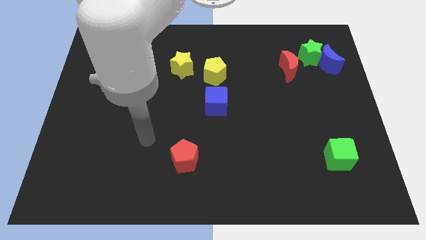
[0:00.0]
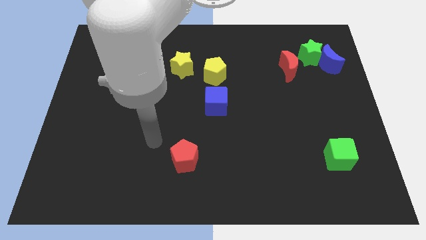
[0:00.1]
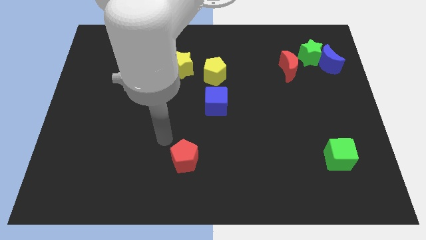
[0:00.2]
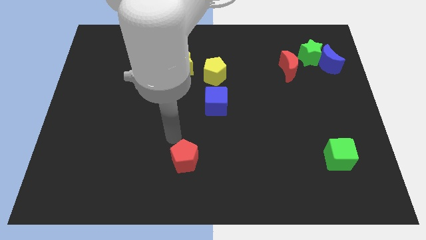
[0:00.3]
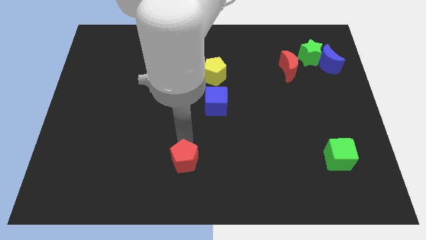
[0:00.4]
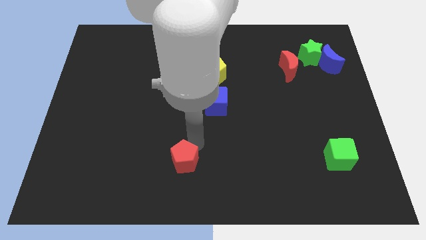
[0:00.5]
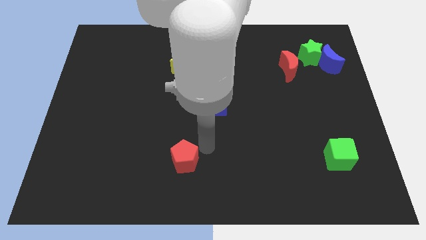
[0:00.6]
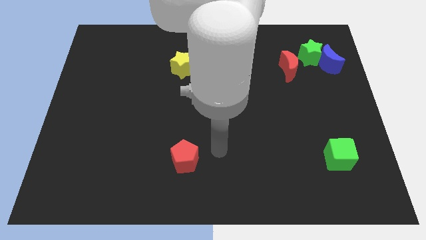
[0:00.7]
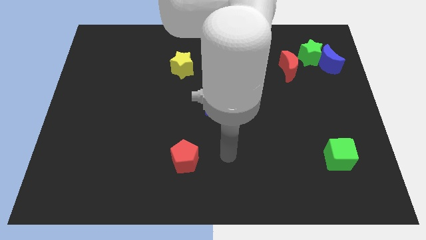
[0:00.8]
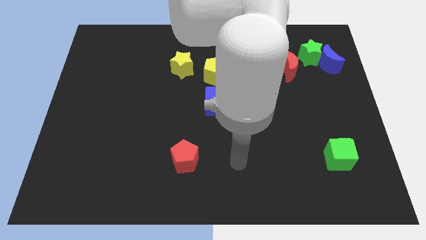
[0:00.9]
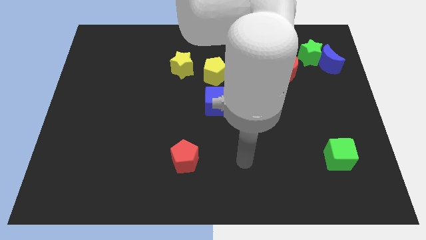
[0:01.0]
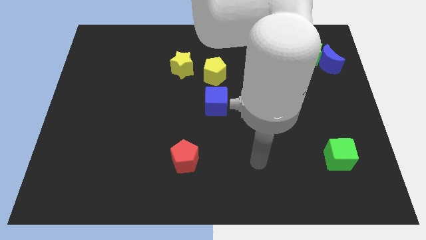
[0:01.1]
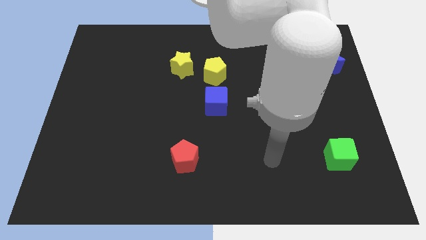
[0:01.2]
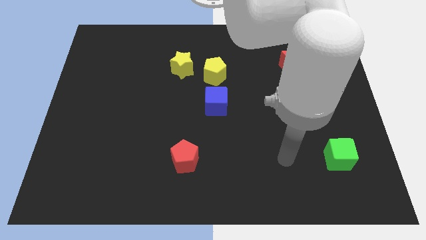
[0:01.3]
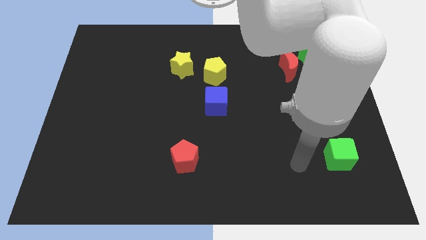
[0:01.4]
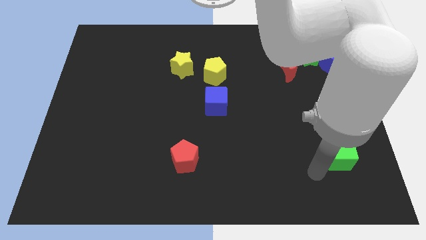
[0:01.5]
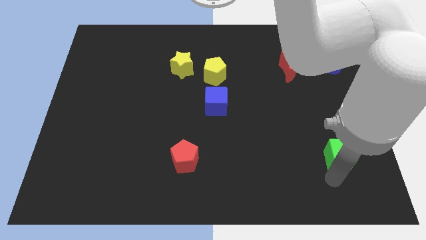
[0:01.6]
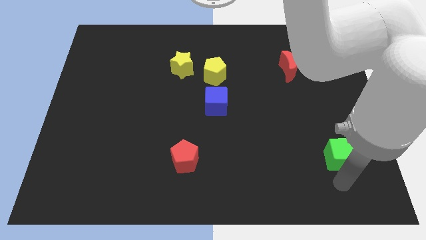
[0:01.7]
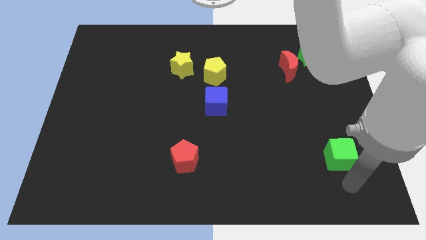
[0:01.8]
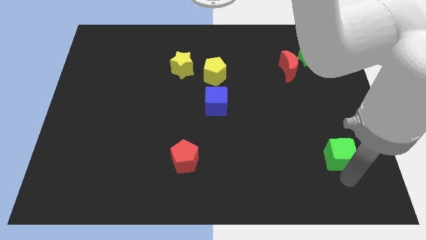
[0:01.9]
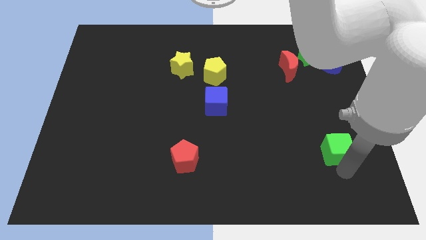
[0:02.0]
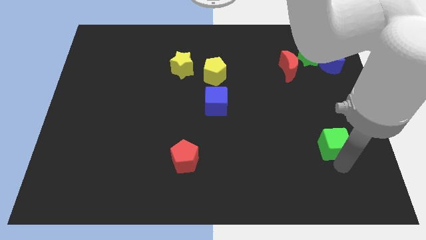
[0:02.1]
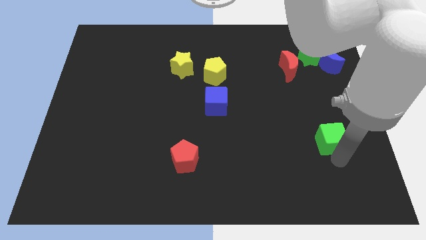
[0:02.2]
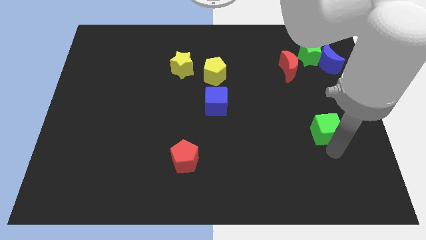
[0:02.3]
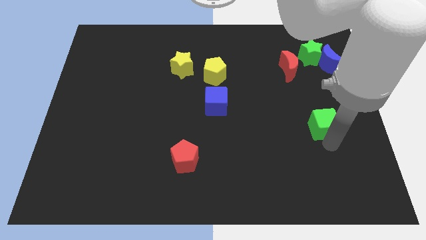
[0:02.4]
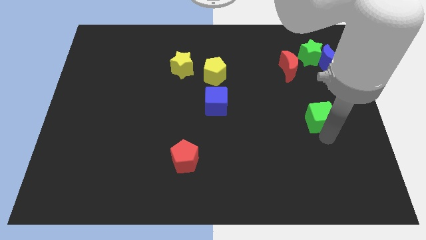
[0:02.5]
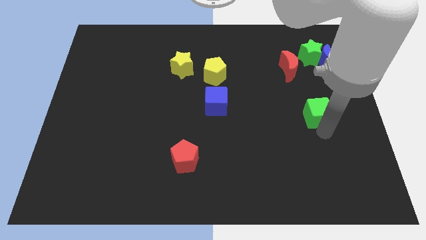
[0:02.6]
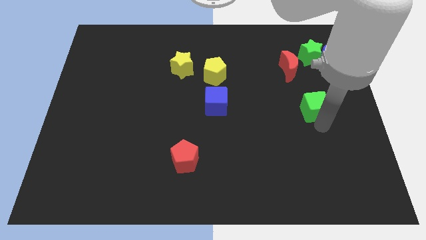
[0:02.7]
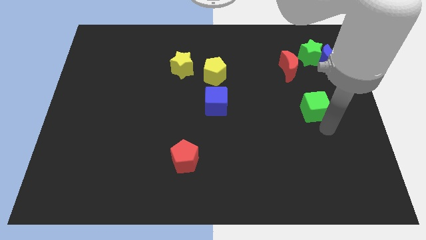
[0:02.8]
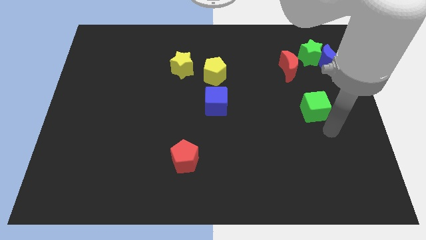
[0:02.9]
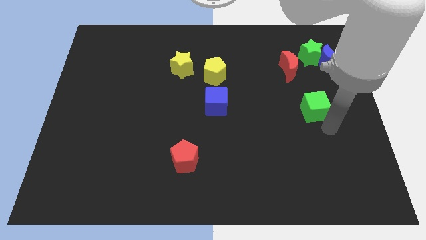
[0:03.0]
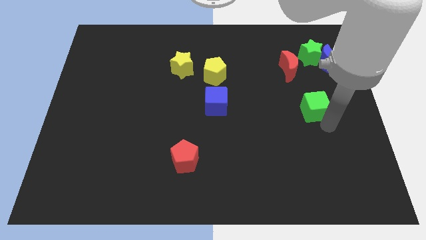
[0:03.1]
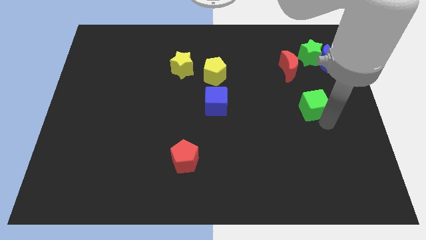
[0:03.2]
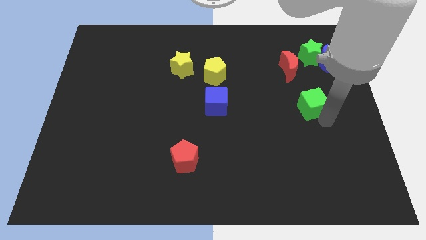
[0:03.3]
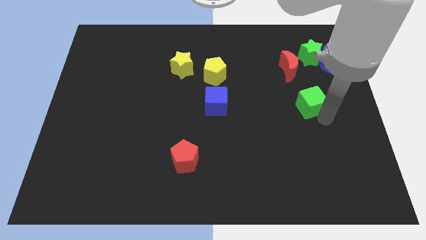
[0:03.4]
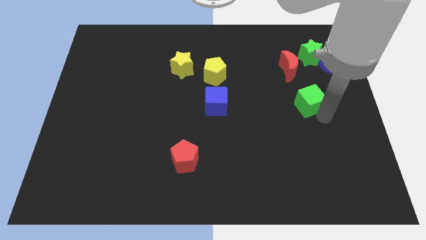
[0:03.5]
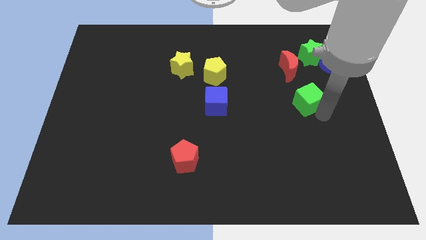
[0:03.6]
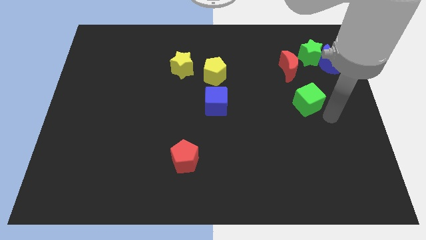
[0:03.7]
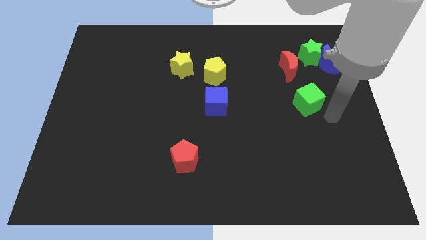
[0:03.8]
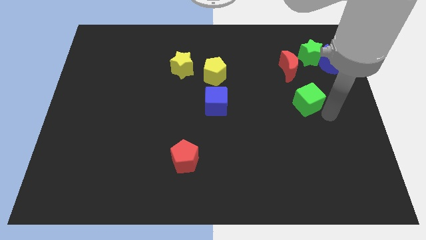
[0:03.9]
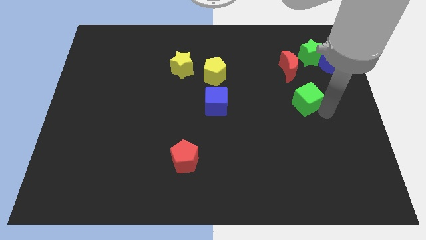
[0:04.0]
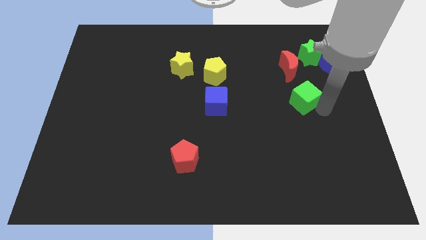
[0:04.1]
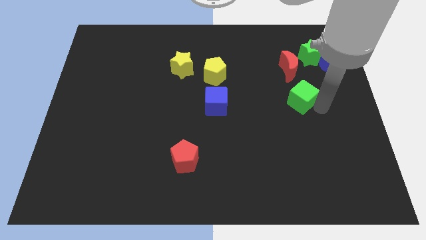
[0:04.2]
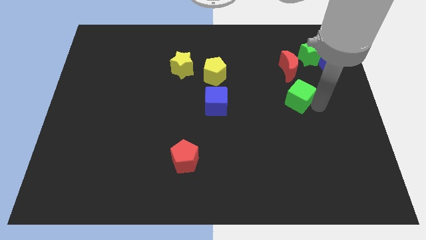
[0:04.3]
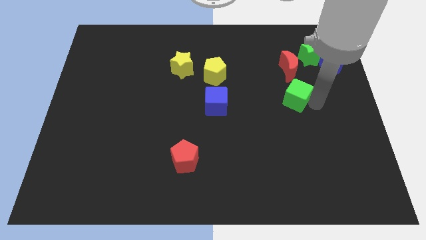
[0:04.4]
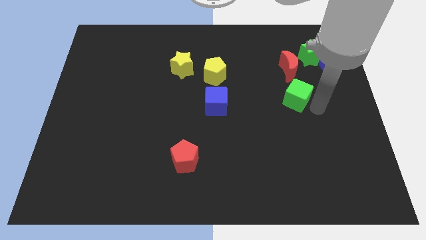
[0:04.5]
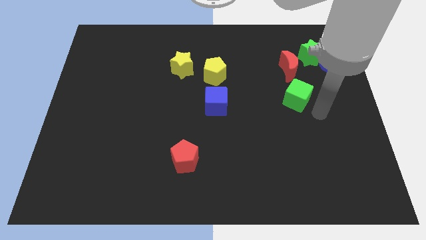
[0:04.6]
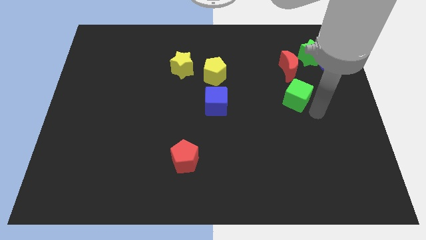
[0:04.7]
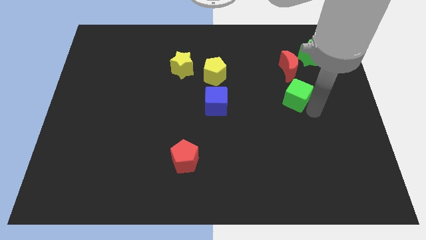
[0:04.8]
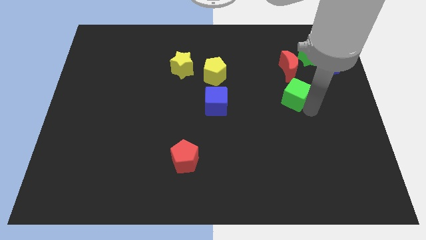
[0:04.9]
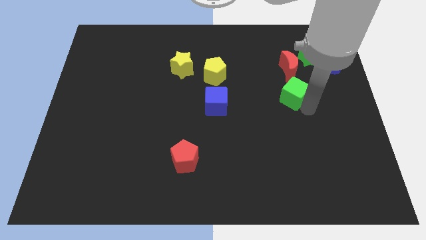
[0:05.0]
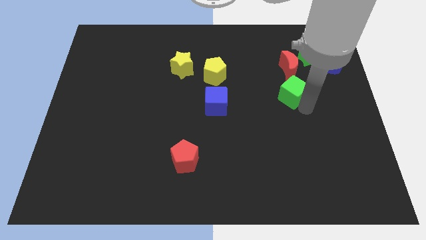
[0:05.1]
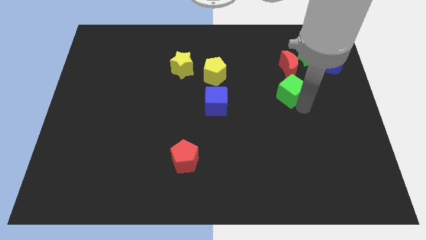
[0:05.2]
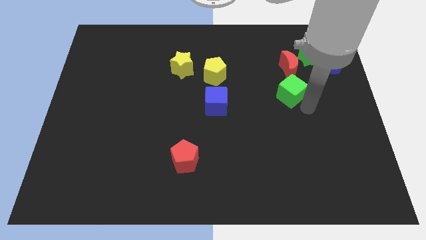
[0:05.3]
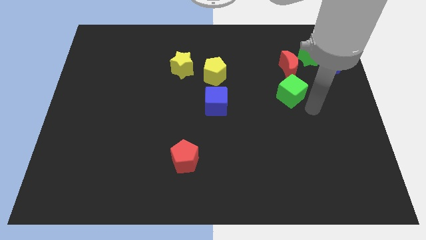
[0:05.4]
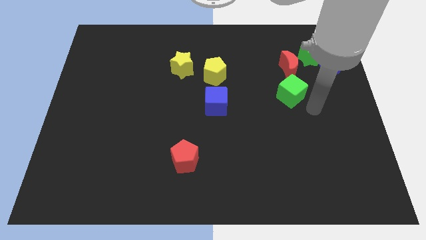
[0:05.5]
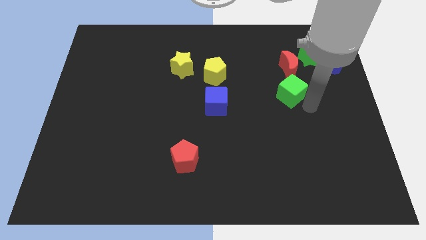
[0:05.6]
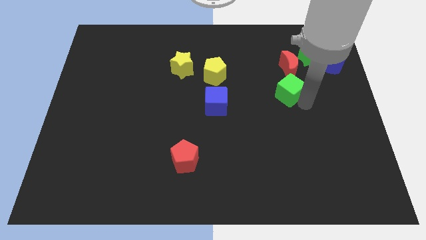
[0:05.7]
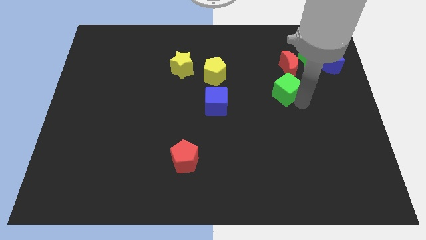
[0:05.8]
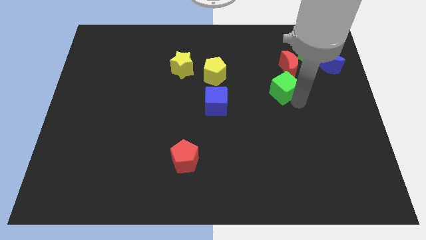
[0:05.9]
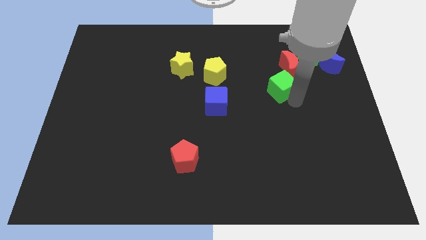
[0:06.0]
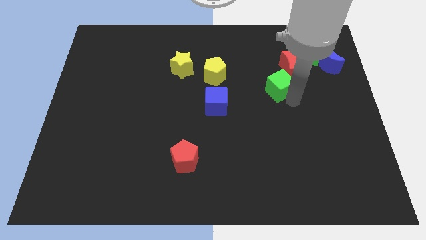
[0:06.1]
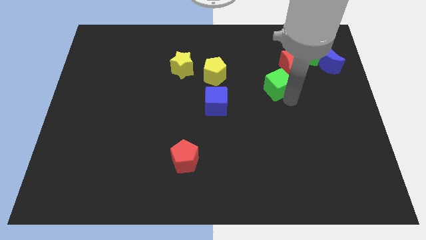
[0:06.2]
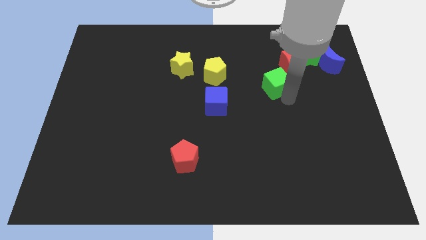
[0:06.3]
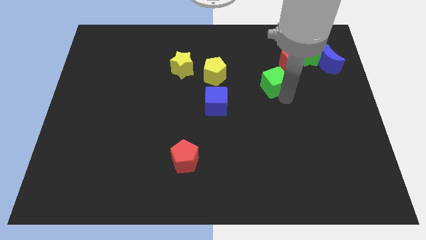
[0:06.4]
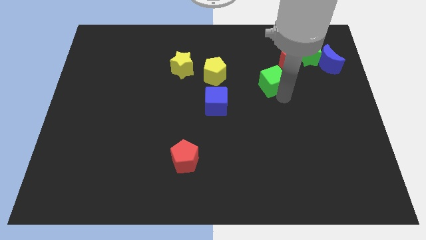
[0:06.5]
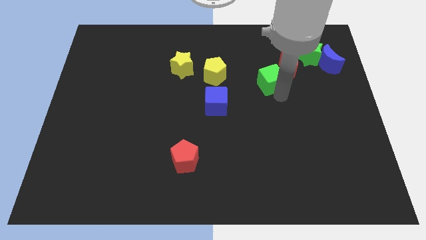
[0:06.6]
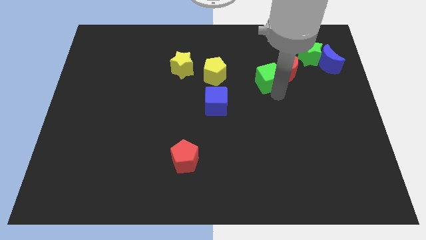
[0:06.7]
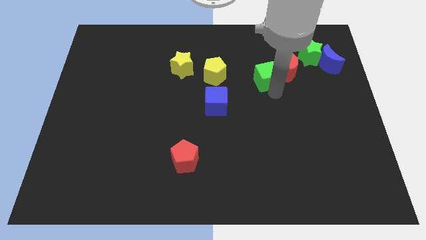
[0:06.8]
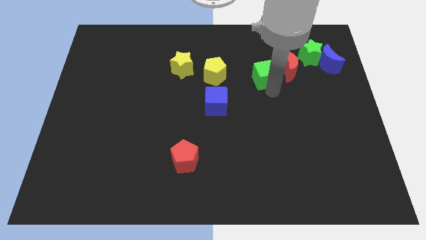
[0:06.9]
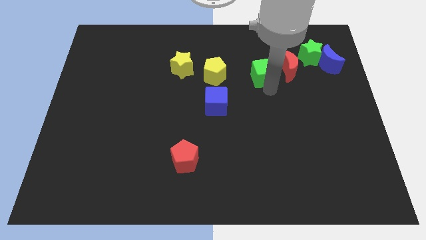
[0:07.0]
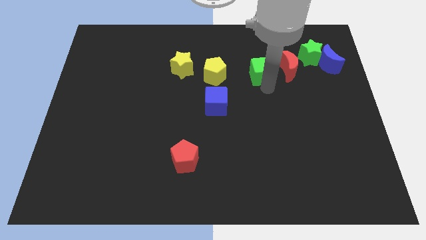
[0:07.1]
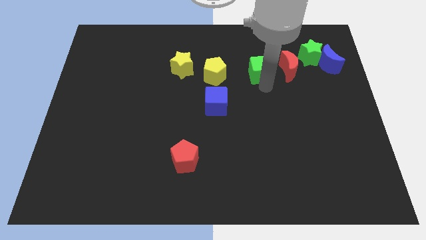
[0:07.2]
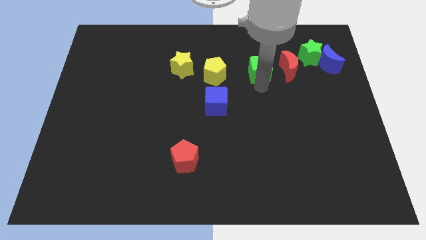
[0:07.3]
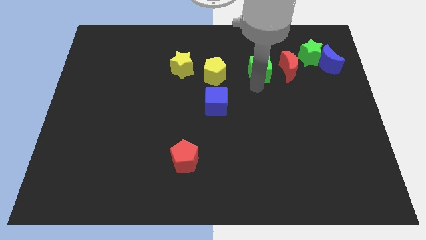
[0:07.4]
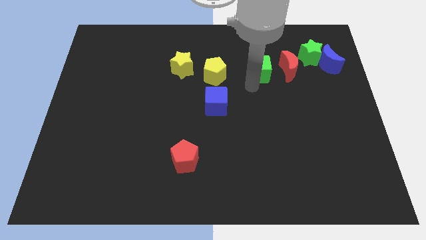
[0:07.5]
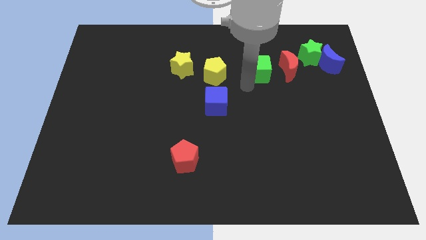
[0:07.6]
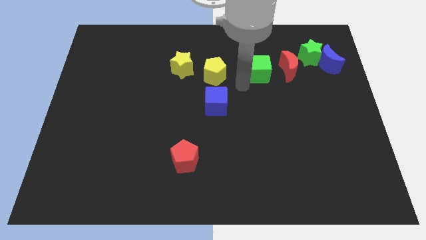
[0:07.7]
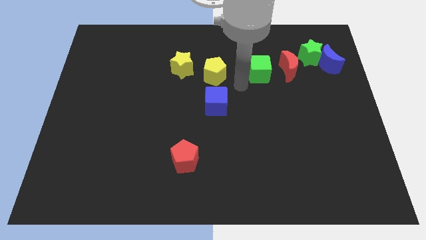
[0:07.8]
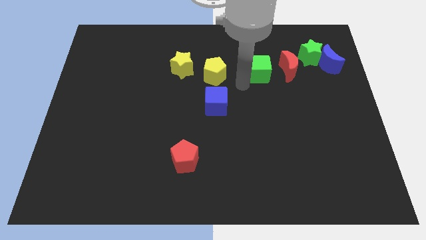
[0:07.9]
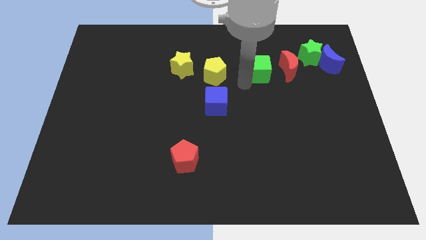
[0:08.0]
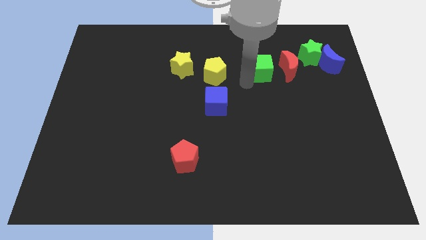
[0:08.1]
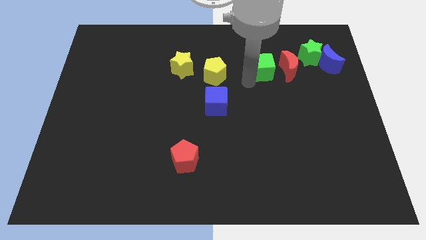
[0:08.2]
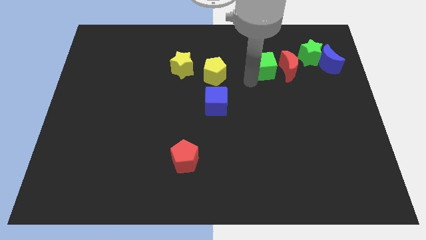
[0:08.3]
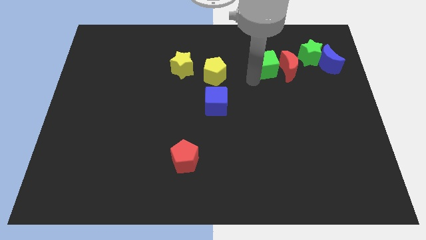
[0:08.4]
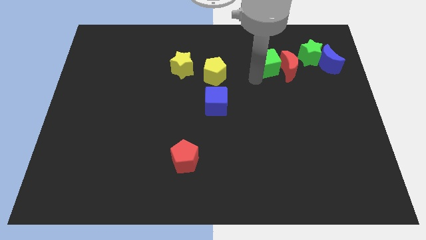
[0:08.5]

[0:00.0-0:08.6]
push the green cube just left of the blue moon
